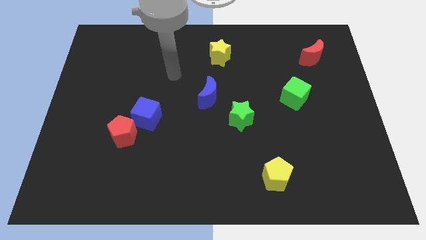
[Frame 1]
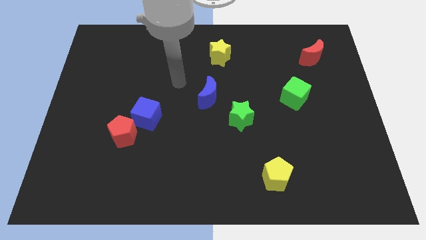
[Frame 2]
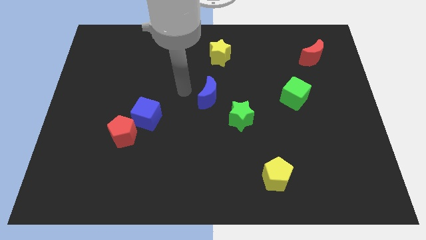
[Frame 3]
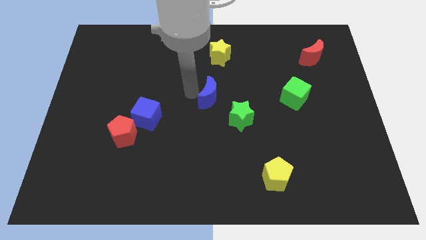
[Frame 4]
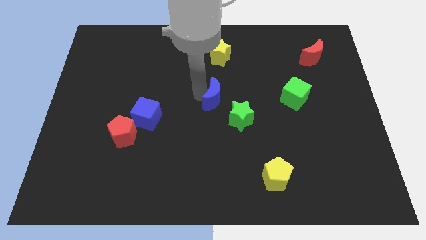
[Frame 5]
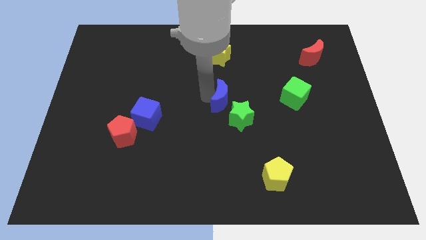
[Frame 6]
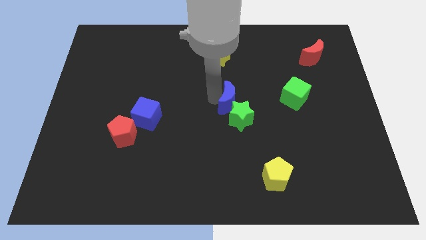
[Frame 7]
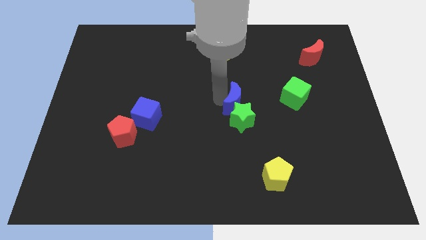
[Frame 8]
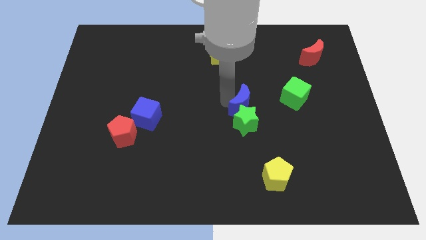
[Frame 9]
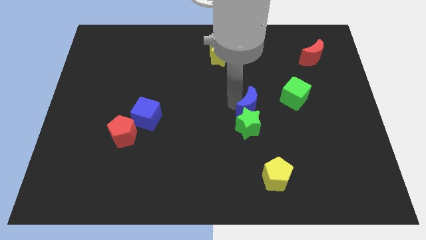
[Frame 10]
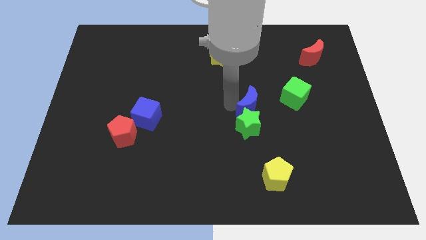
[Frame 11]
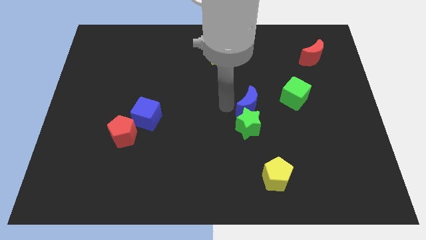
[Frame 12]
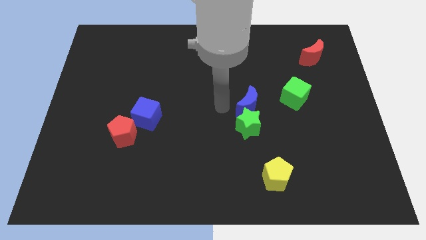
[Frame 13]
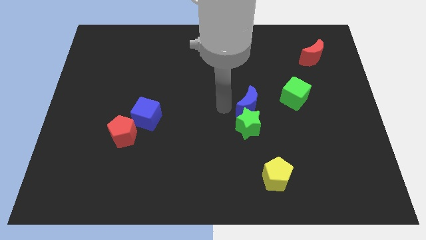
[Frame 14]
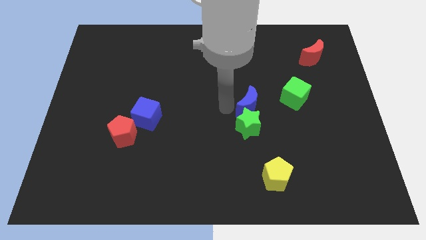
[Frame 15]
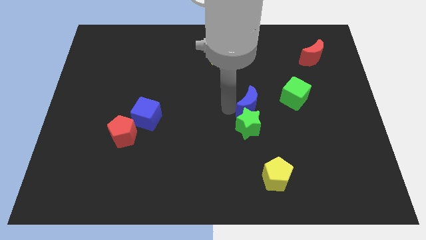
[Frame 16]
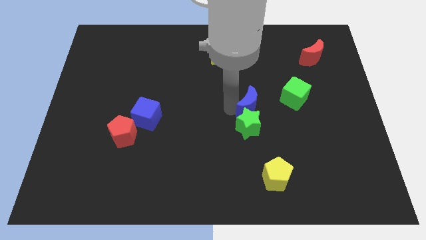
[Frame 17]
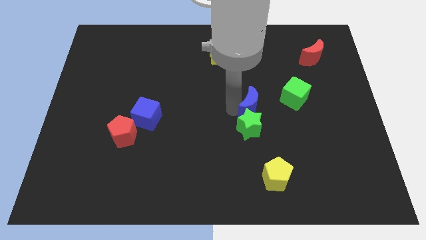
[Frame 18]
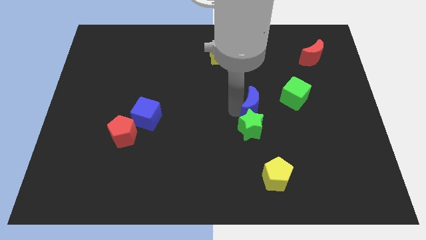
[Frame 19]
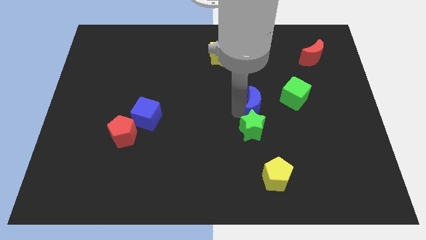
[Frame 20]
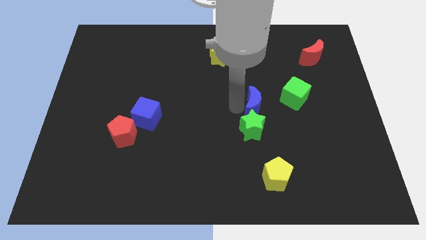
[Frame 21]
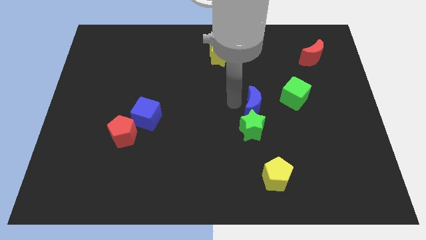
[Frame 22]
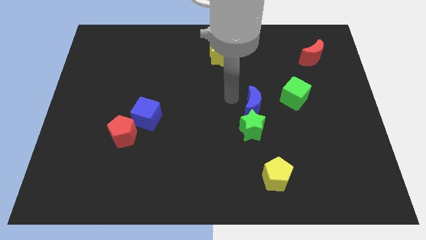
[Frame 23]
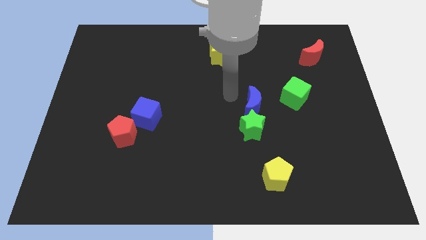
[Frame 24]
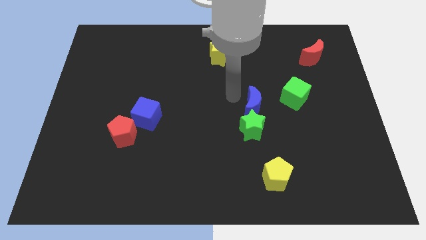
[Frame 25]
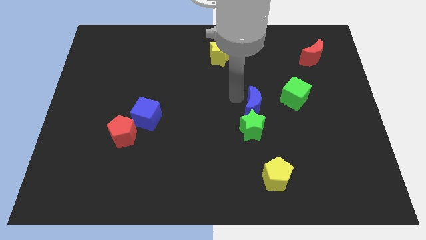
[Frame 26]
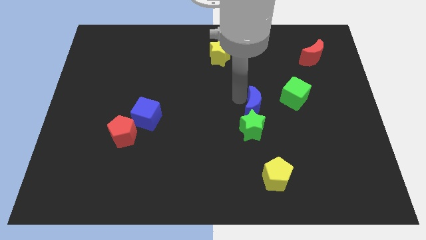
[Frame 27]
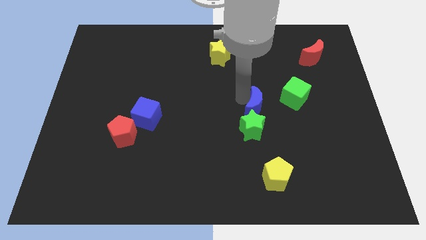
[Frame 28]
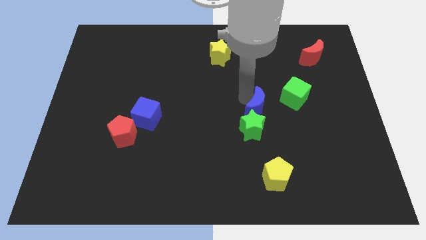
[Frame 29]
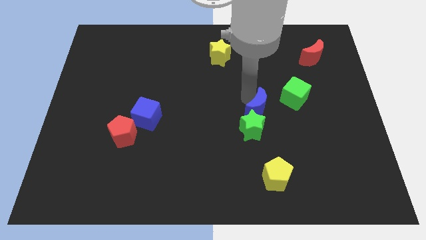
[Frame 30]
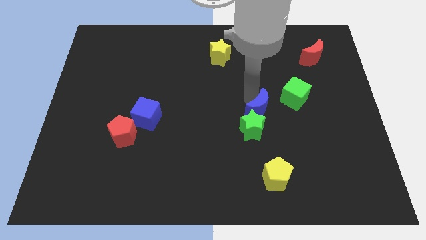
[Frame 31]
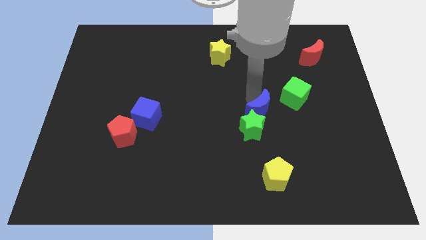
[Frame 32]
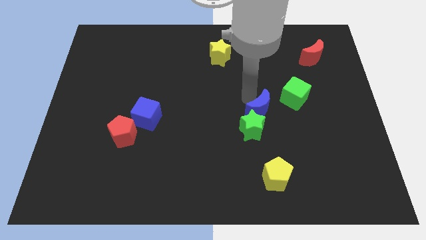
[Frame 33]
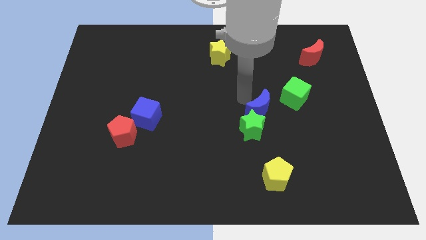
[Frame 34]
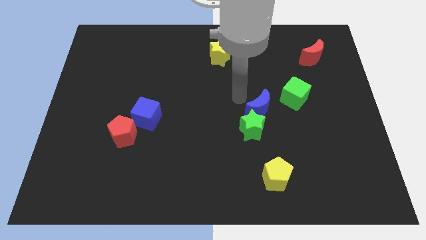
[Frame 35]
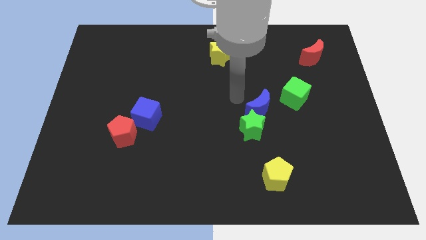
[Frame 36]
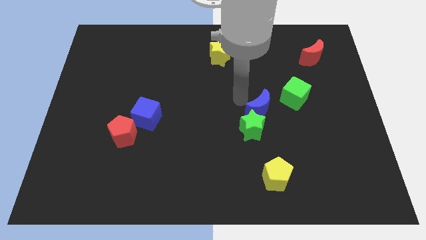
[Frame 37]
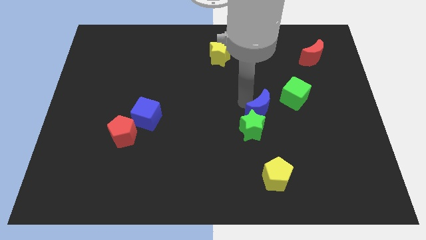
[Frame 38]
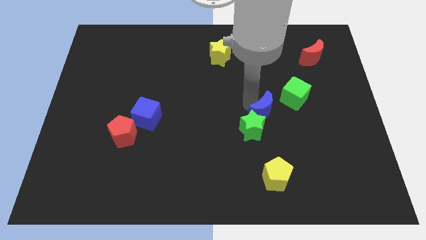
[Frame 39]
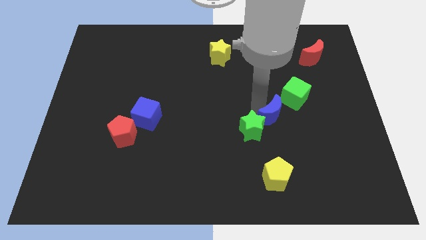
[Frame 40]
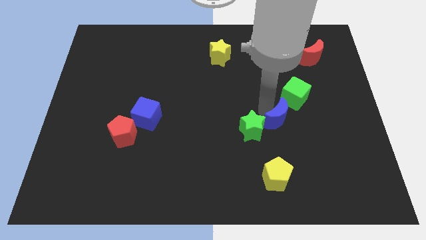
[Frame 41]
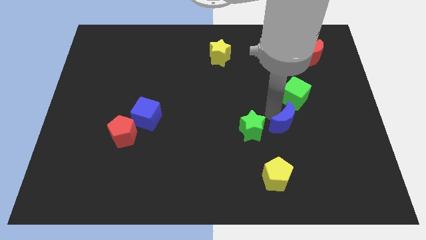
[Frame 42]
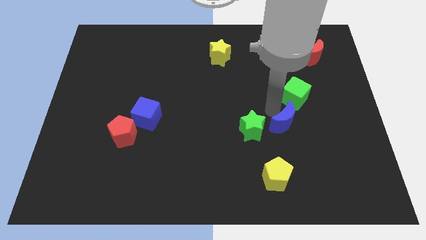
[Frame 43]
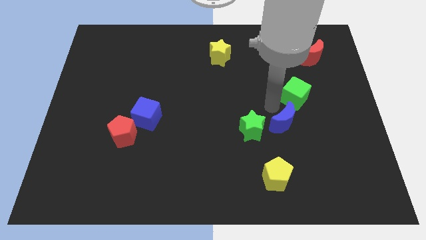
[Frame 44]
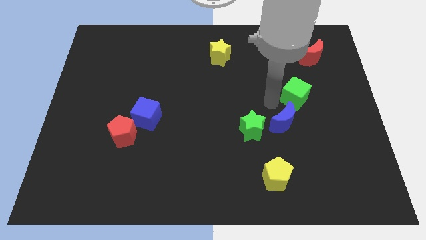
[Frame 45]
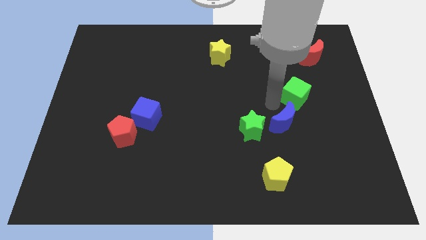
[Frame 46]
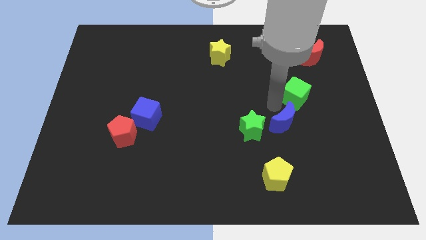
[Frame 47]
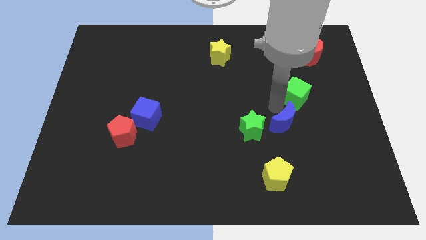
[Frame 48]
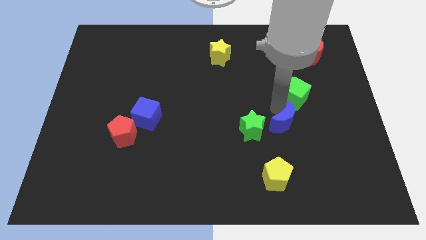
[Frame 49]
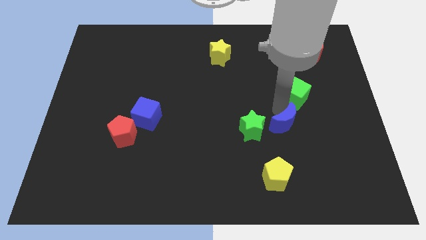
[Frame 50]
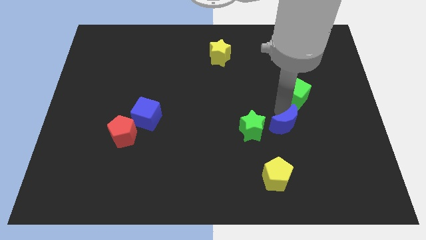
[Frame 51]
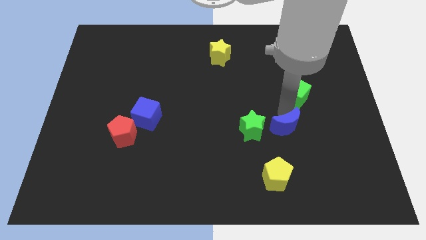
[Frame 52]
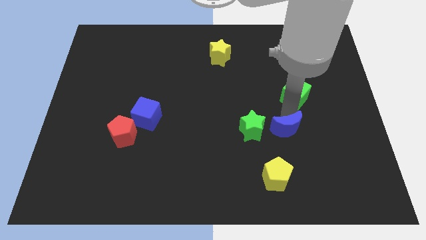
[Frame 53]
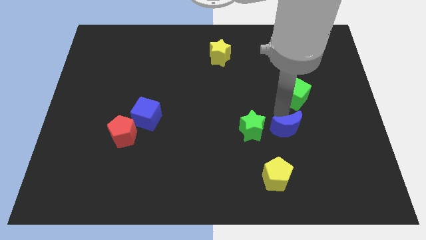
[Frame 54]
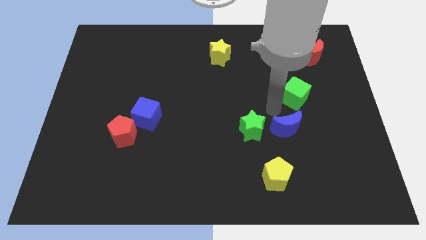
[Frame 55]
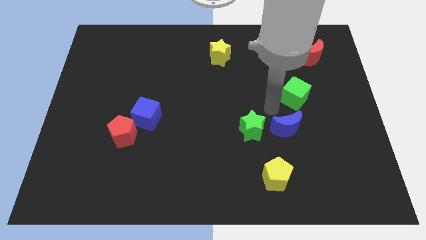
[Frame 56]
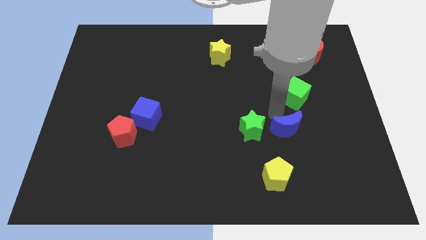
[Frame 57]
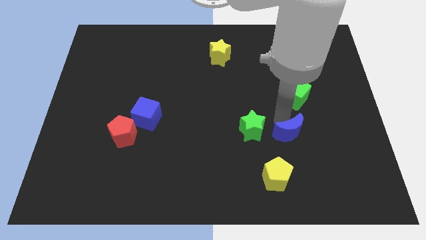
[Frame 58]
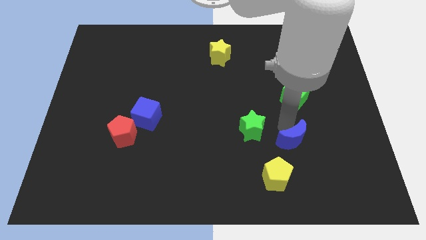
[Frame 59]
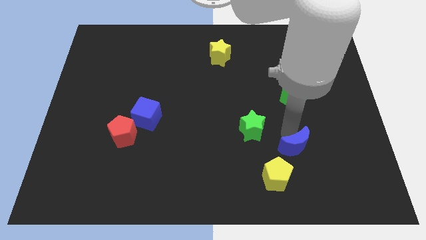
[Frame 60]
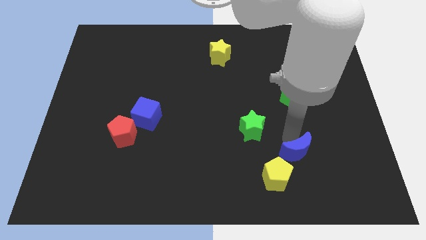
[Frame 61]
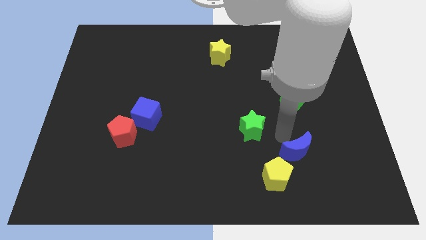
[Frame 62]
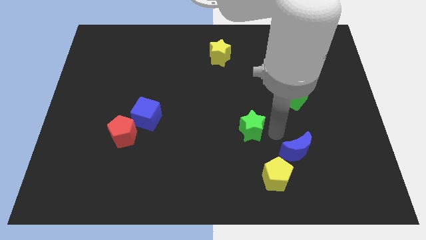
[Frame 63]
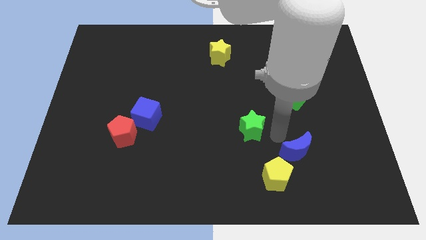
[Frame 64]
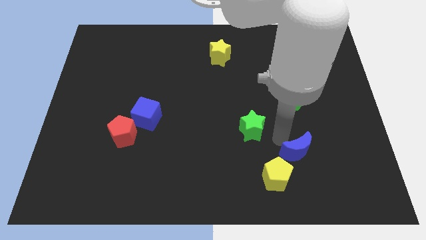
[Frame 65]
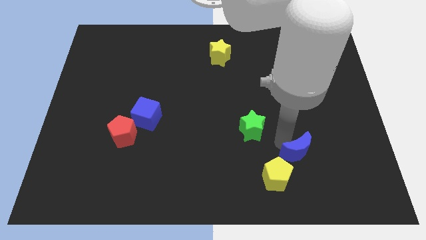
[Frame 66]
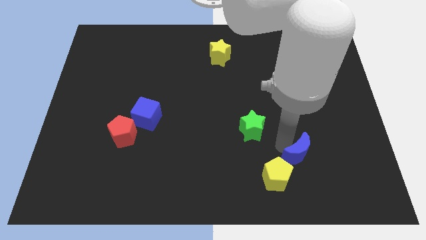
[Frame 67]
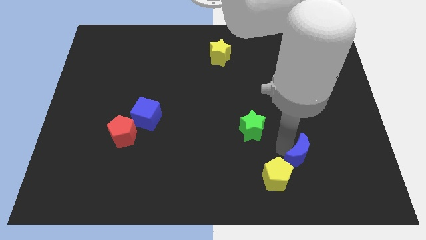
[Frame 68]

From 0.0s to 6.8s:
move the blue moon to the right side of the yellow pentagon
